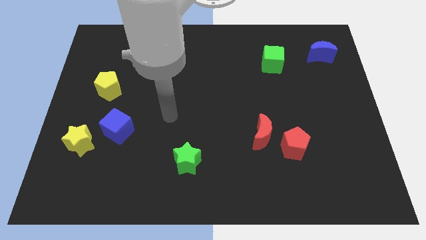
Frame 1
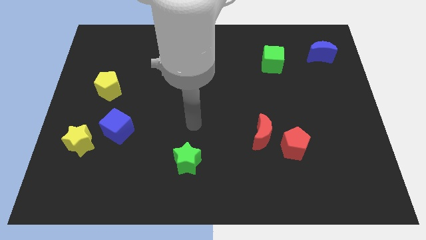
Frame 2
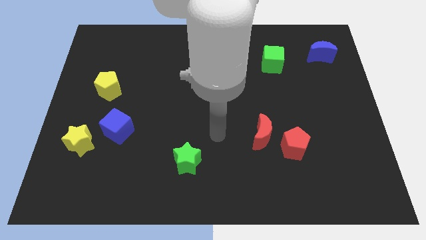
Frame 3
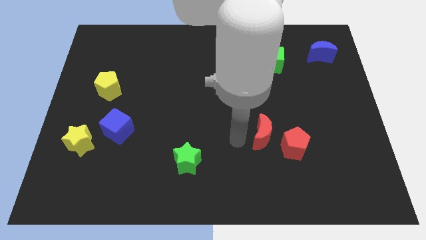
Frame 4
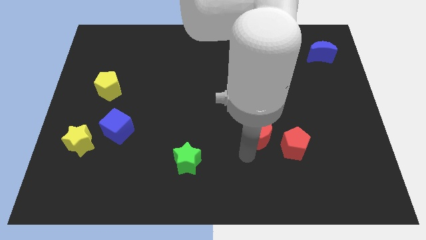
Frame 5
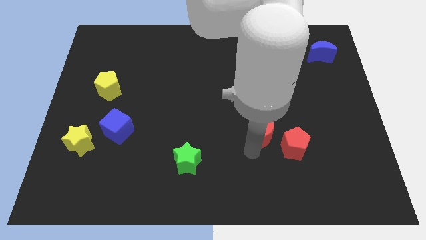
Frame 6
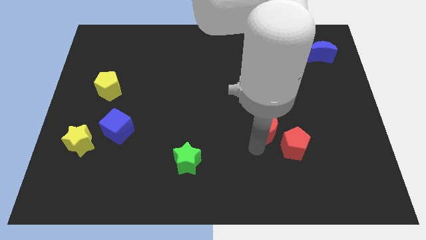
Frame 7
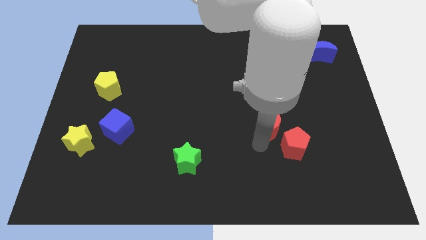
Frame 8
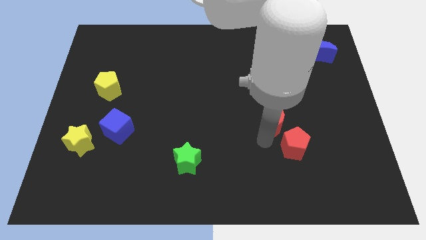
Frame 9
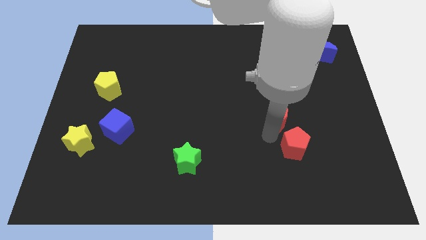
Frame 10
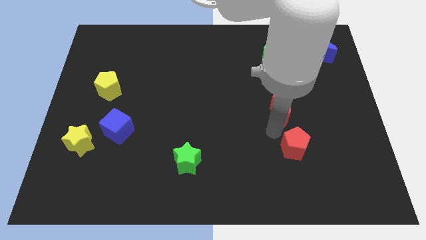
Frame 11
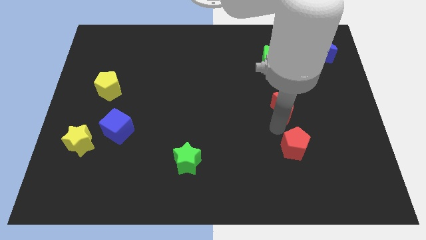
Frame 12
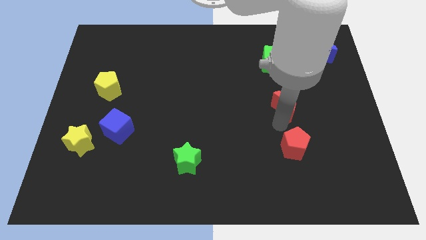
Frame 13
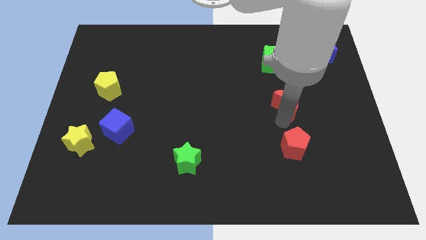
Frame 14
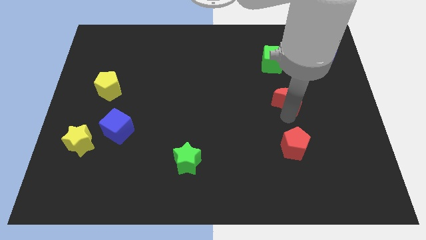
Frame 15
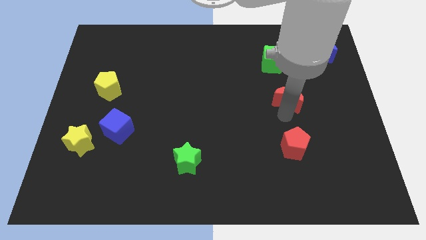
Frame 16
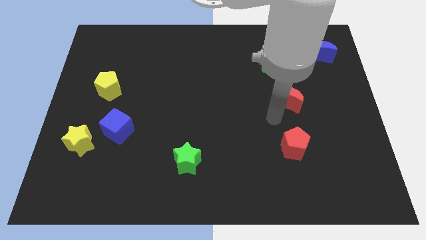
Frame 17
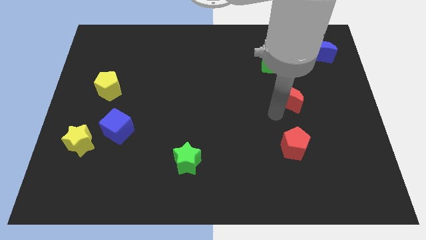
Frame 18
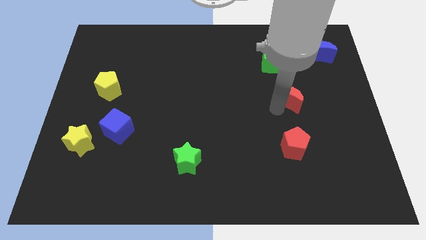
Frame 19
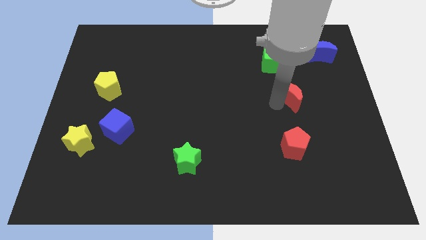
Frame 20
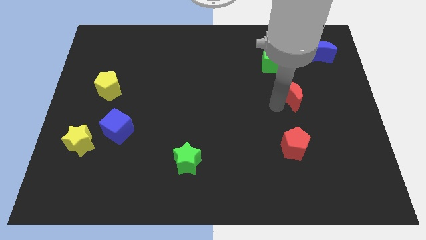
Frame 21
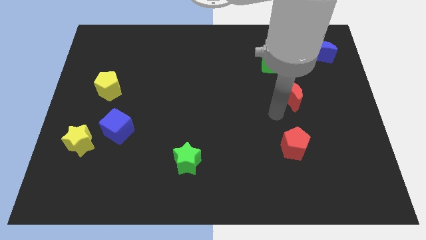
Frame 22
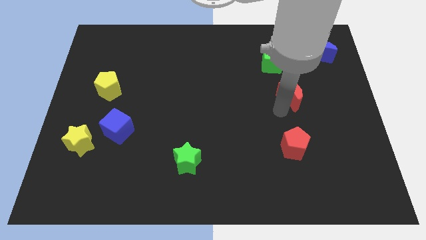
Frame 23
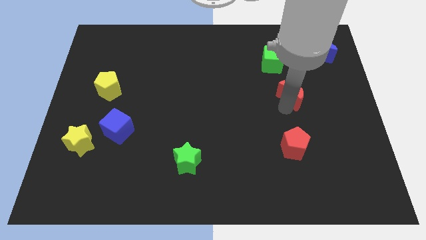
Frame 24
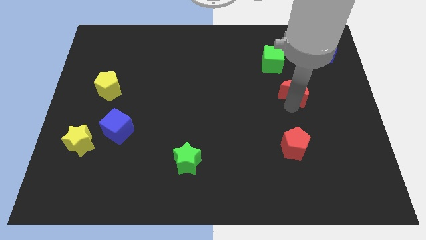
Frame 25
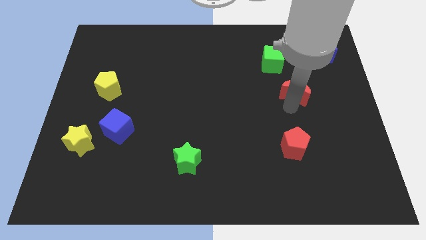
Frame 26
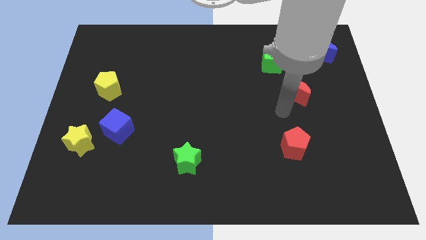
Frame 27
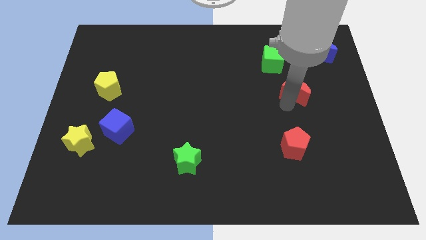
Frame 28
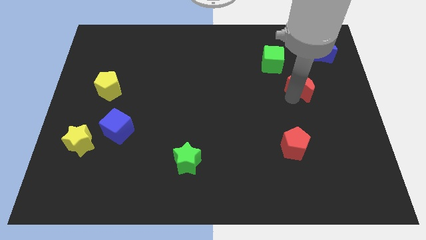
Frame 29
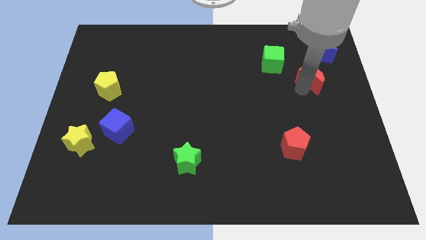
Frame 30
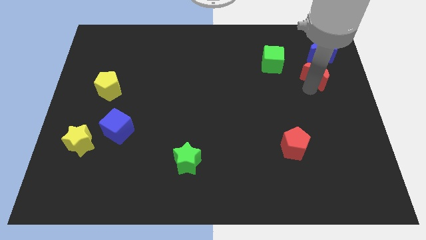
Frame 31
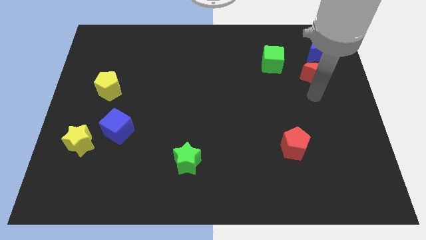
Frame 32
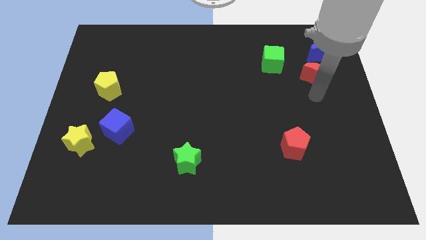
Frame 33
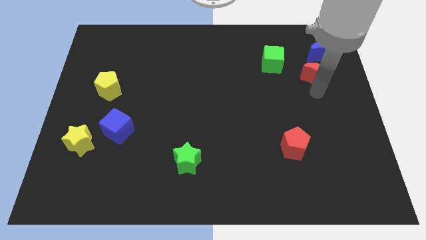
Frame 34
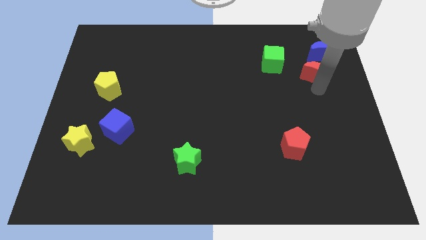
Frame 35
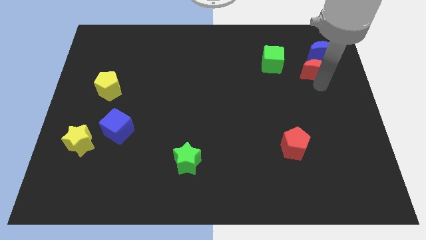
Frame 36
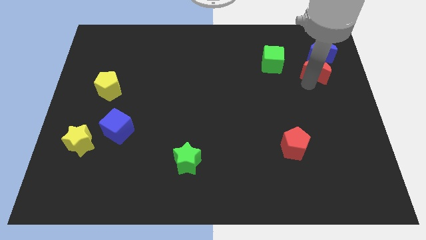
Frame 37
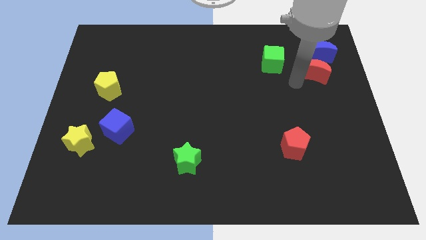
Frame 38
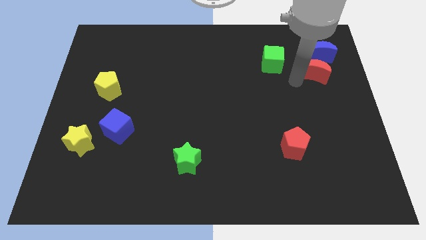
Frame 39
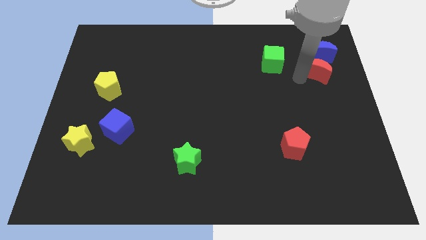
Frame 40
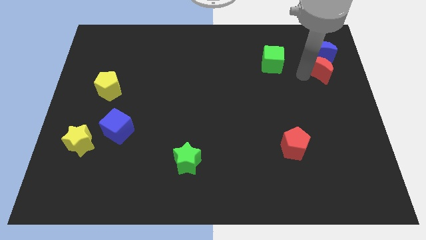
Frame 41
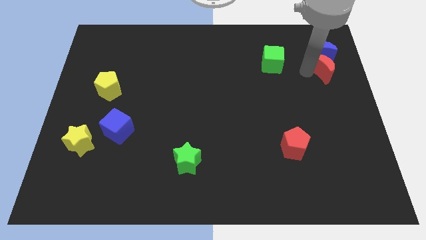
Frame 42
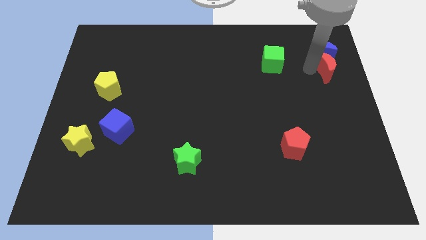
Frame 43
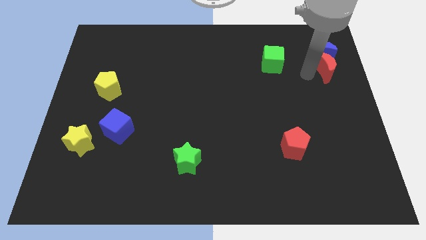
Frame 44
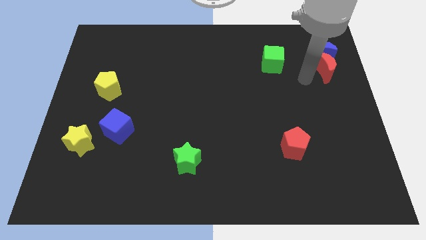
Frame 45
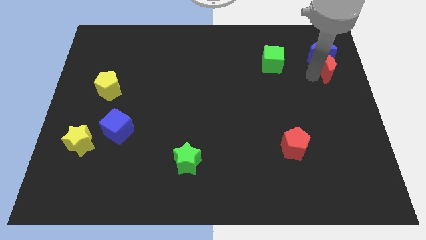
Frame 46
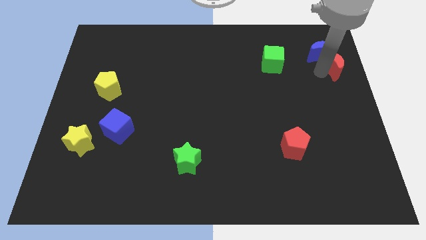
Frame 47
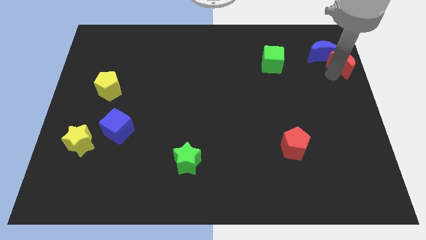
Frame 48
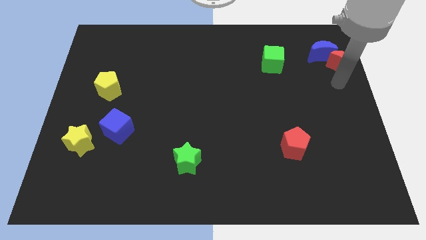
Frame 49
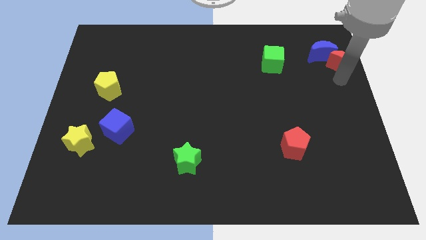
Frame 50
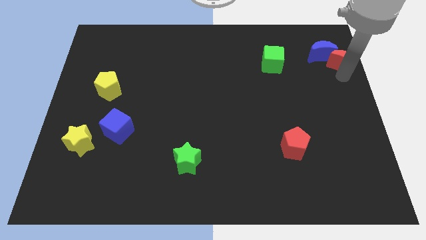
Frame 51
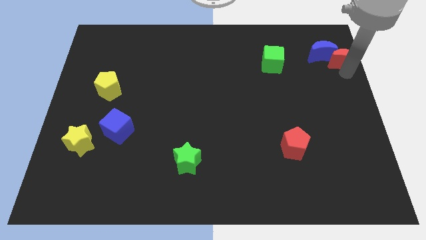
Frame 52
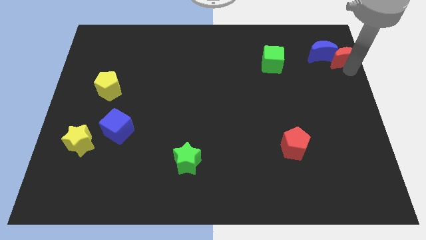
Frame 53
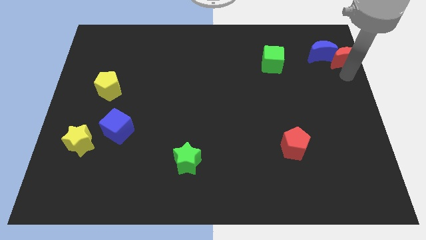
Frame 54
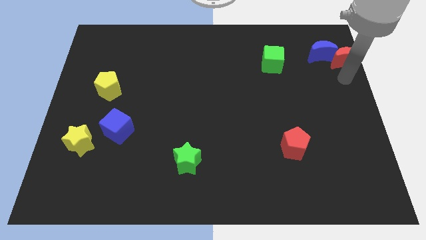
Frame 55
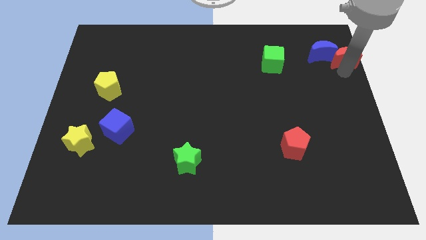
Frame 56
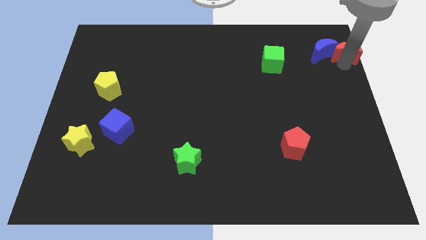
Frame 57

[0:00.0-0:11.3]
slide the red moon to the top right

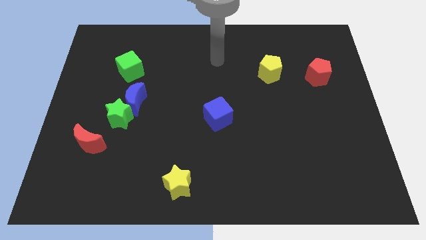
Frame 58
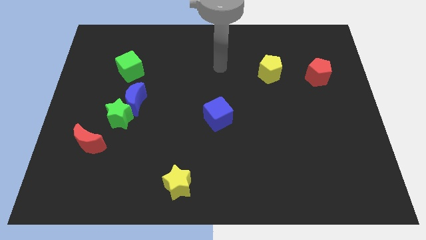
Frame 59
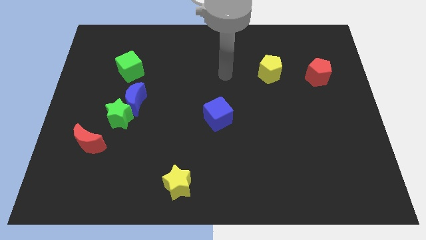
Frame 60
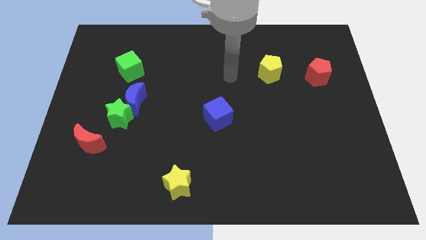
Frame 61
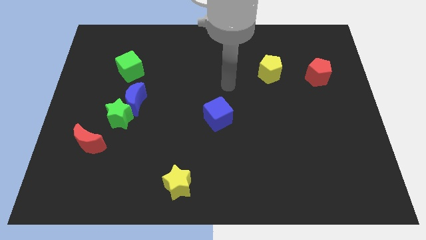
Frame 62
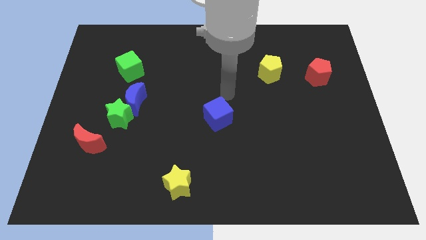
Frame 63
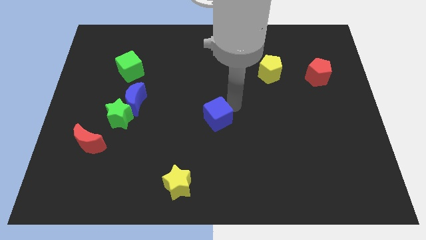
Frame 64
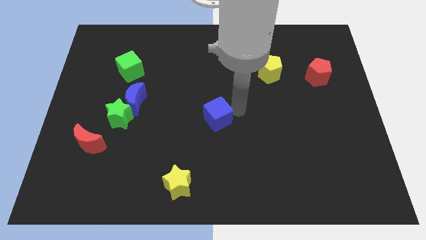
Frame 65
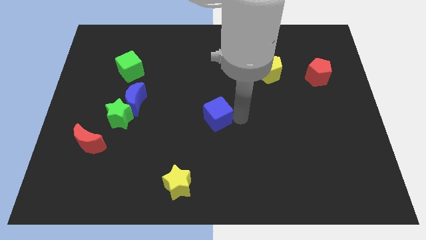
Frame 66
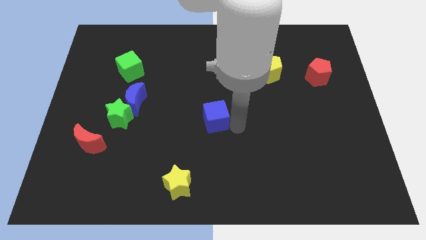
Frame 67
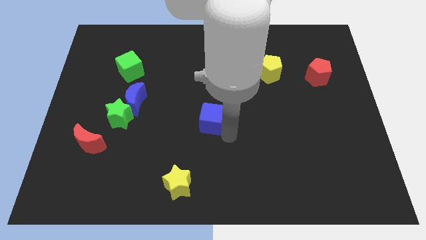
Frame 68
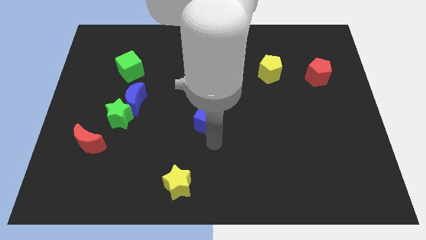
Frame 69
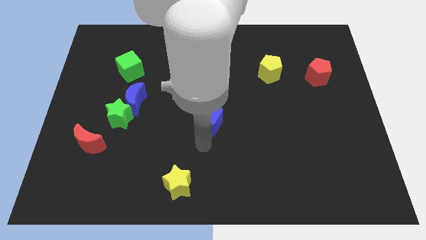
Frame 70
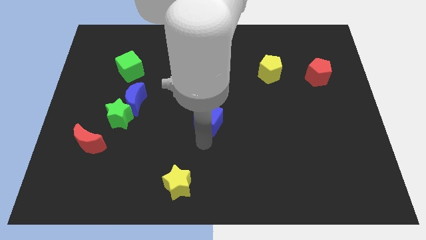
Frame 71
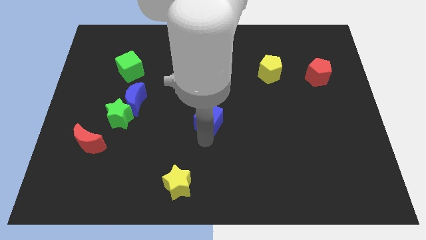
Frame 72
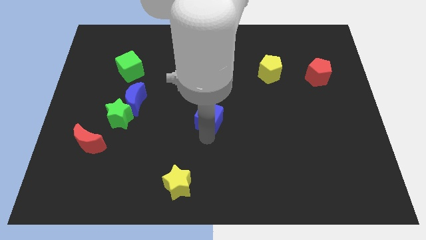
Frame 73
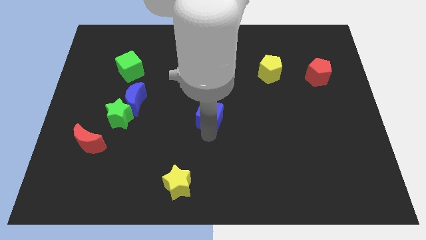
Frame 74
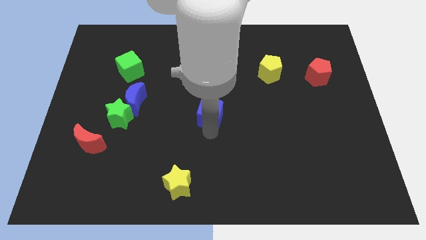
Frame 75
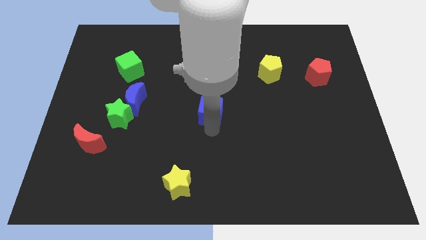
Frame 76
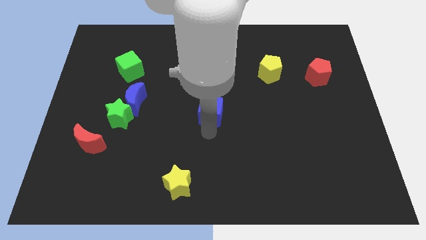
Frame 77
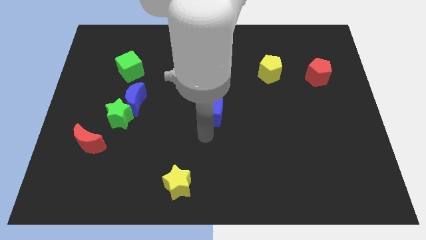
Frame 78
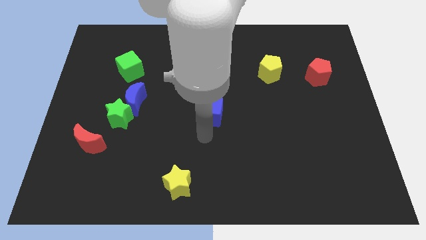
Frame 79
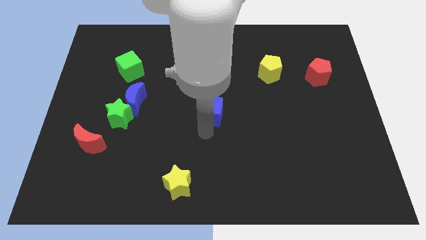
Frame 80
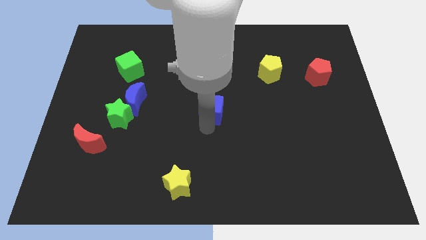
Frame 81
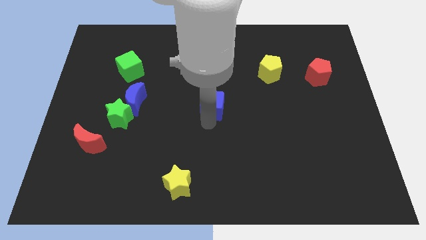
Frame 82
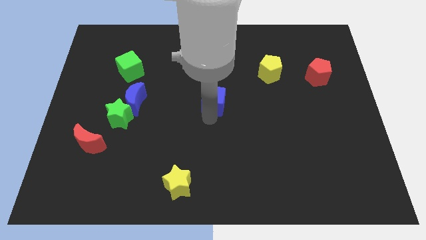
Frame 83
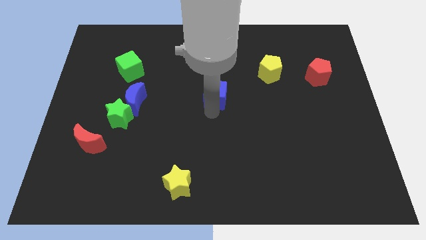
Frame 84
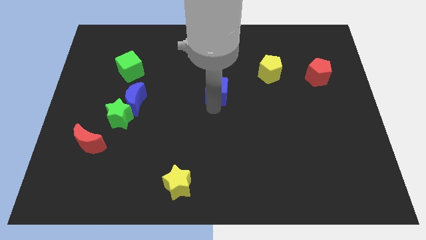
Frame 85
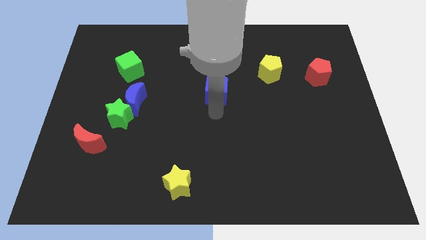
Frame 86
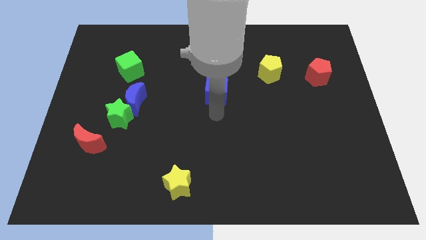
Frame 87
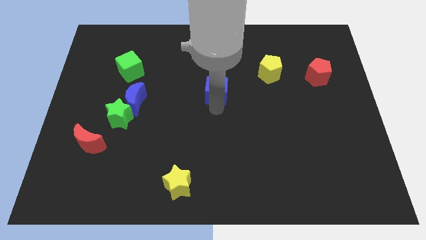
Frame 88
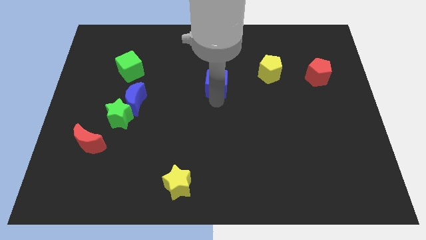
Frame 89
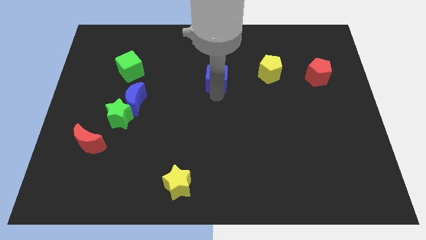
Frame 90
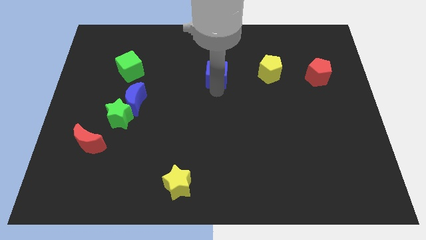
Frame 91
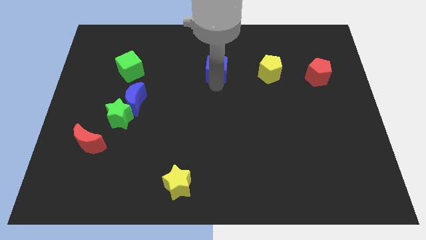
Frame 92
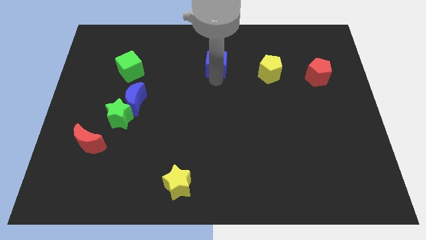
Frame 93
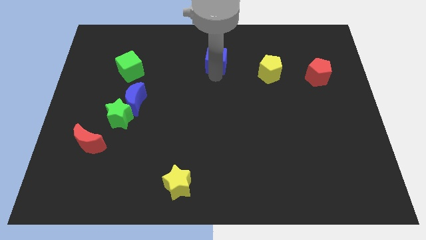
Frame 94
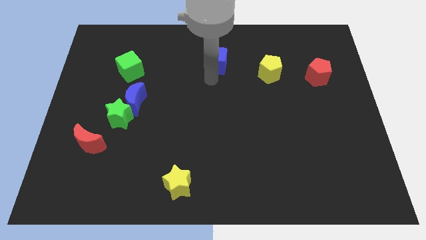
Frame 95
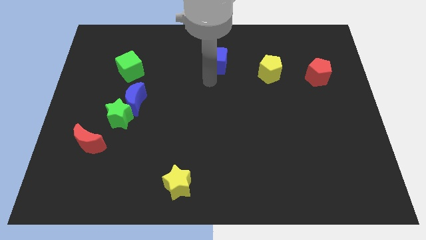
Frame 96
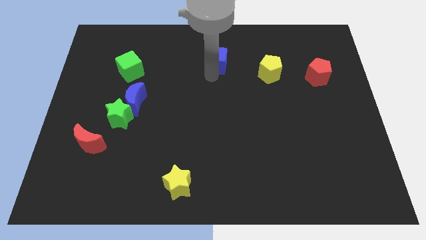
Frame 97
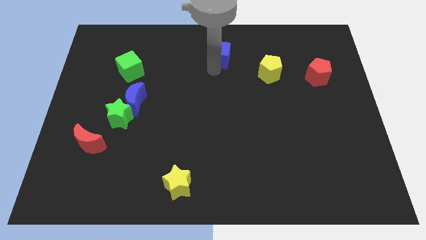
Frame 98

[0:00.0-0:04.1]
put the blue cube to the top
